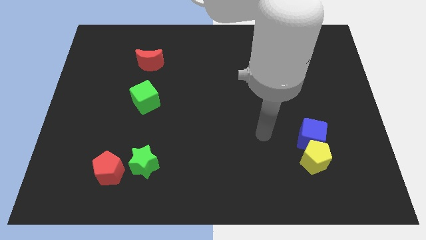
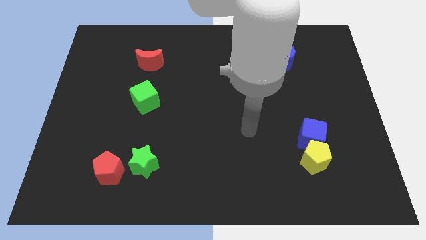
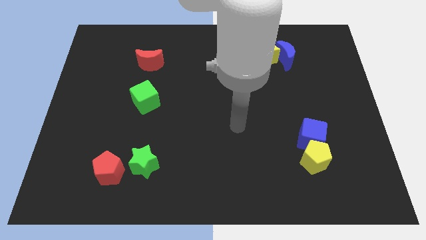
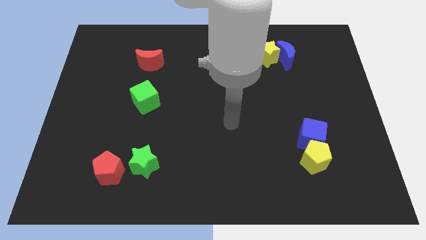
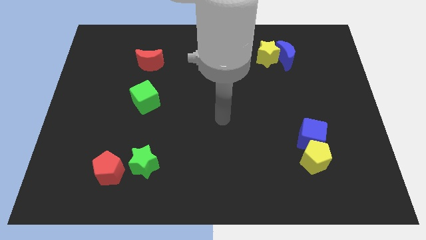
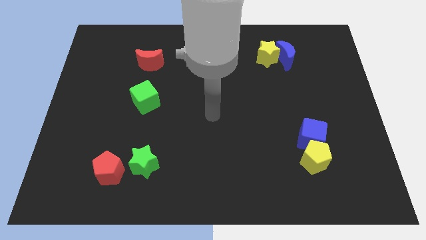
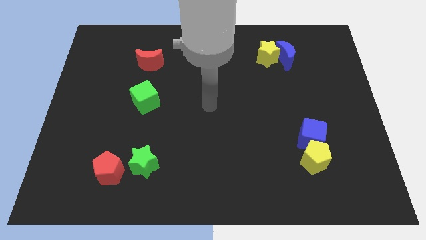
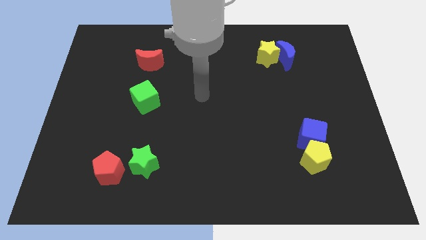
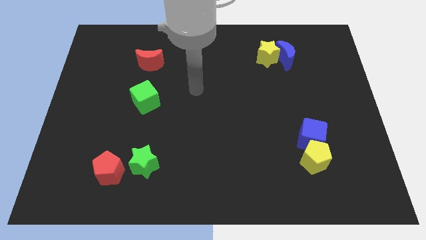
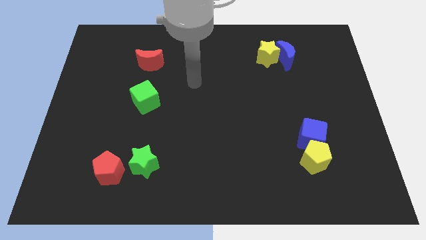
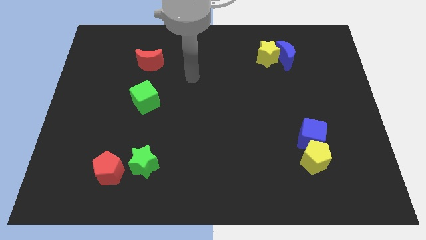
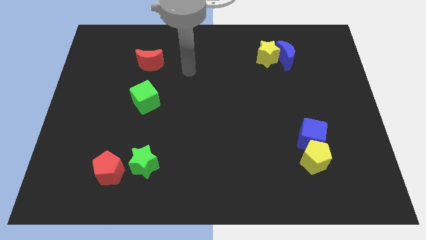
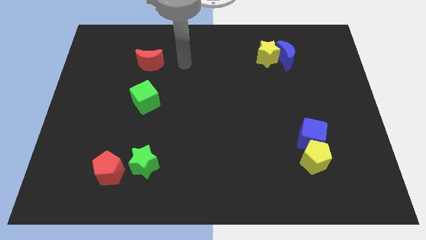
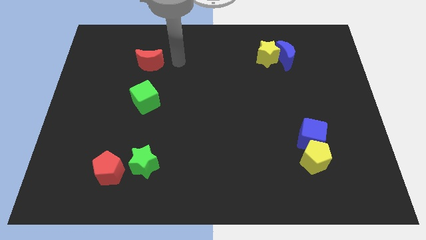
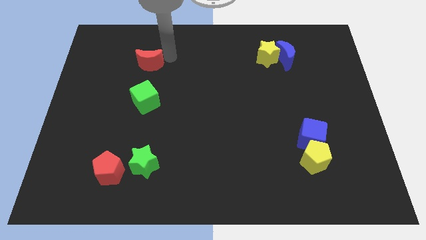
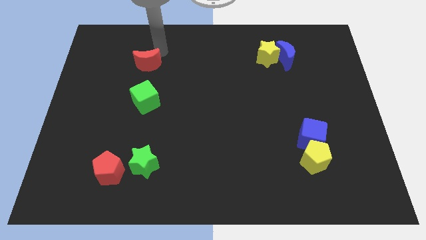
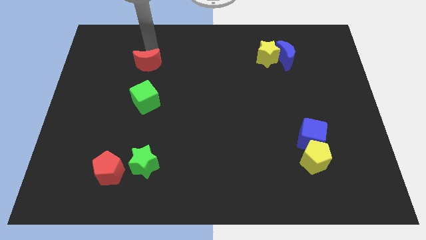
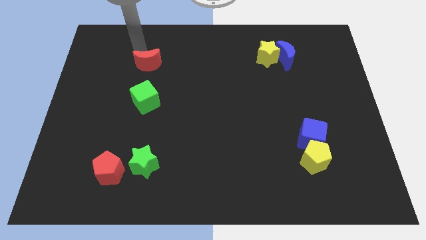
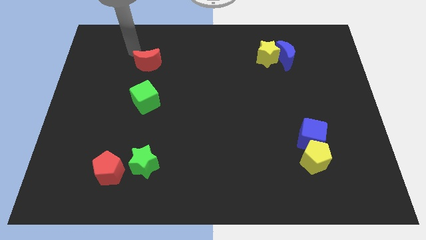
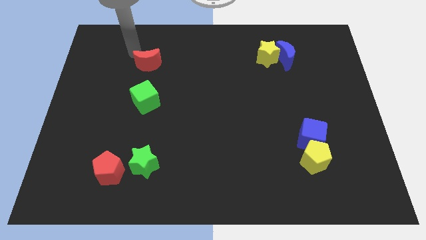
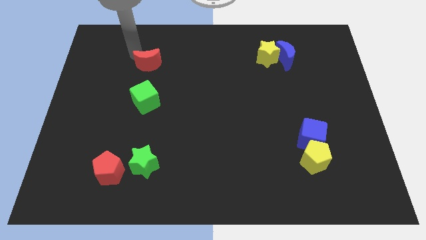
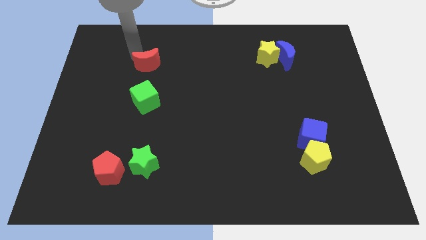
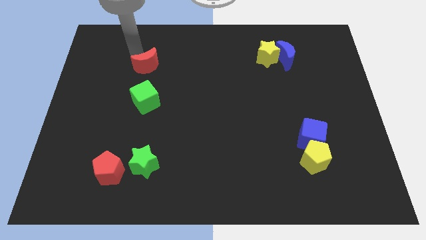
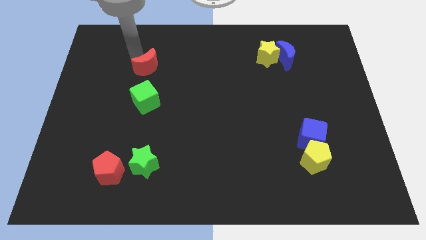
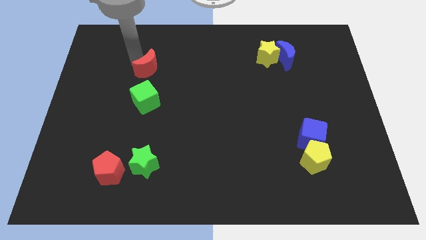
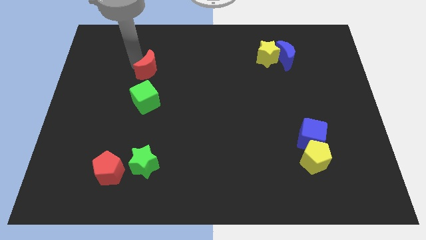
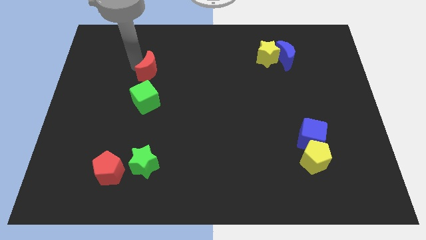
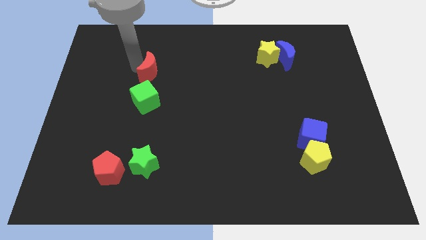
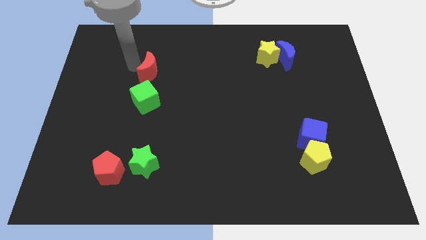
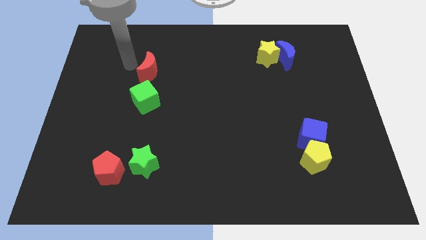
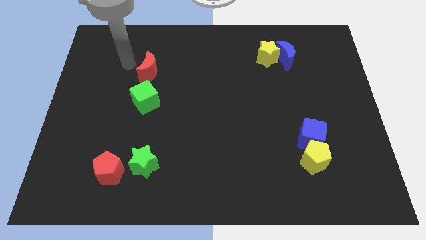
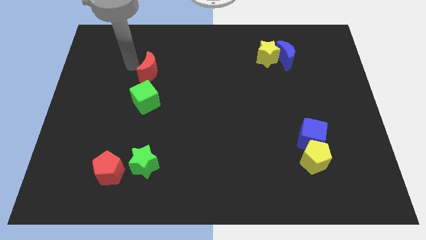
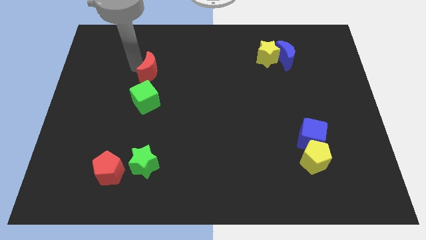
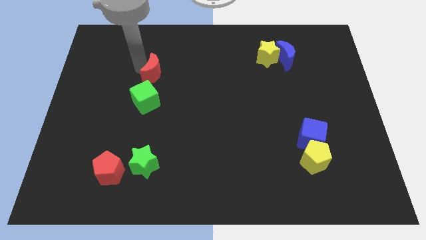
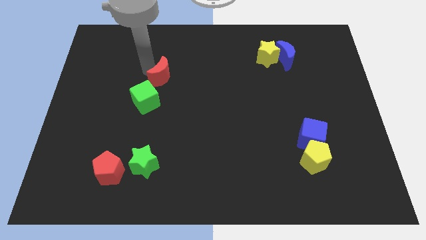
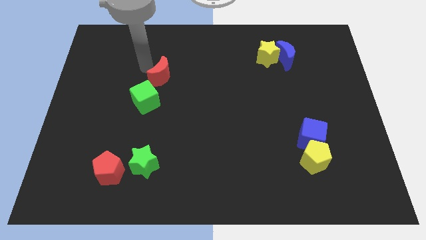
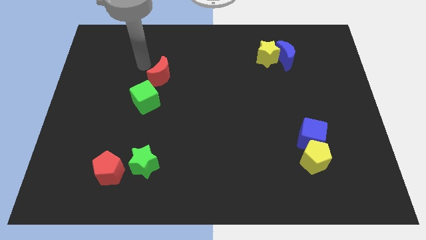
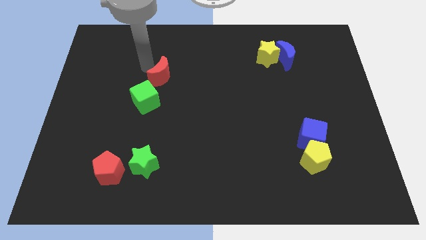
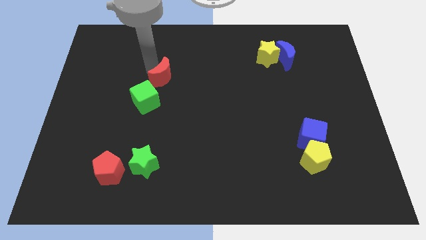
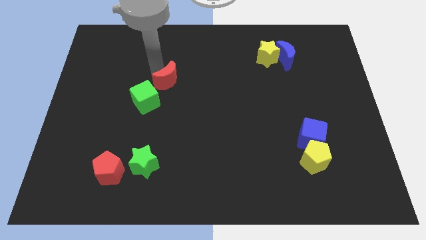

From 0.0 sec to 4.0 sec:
move the red moon a little bit diagonally down and right

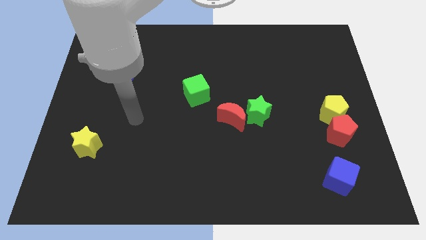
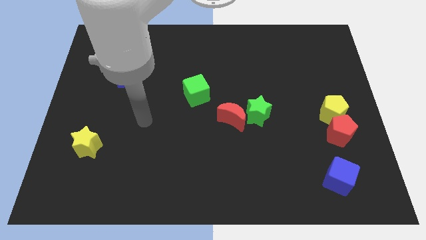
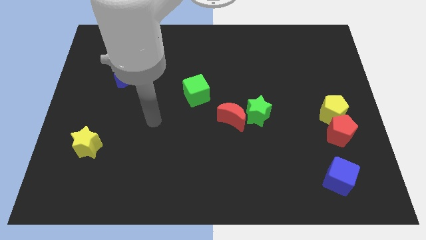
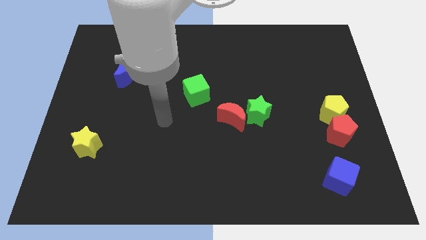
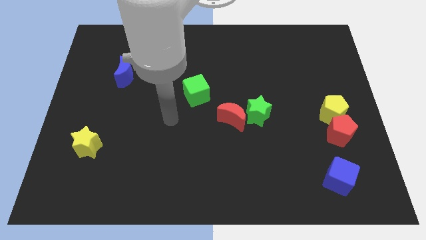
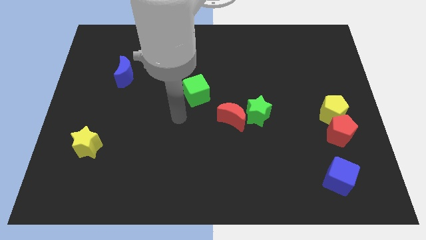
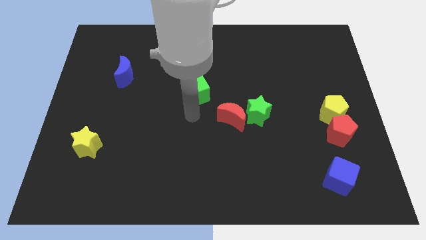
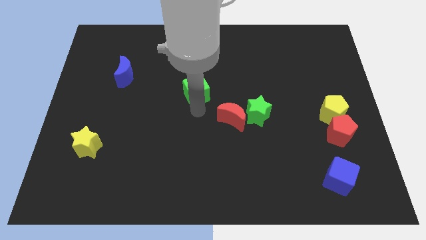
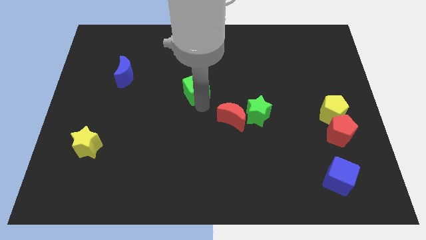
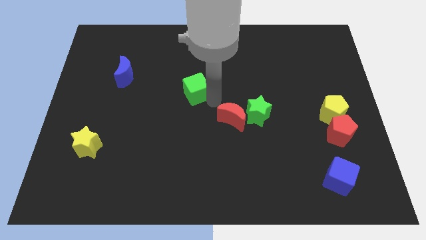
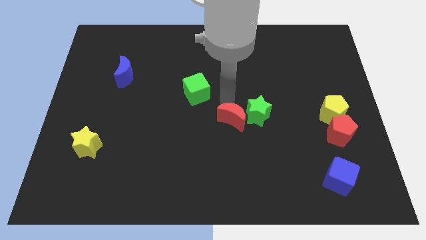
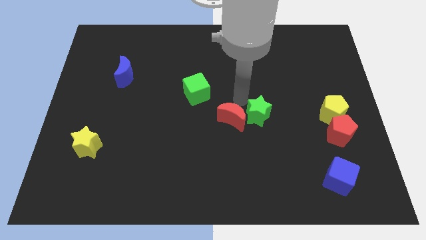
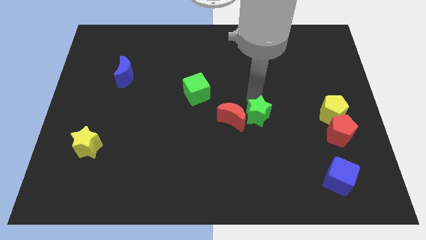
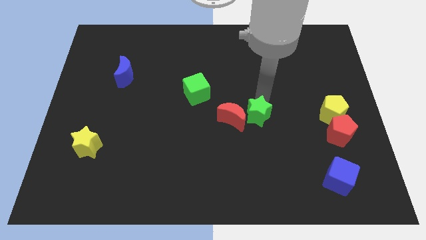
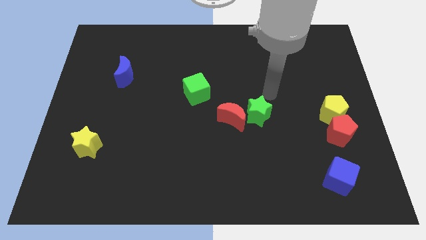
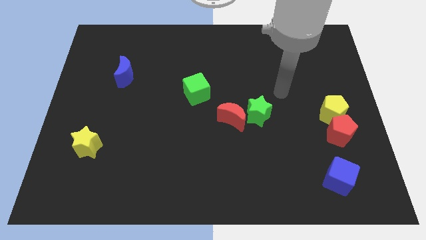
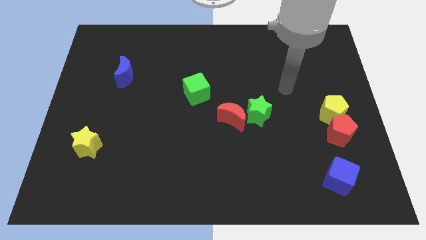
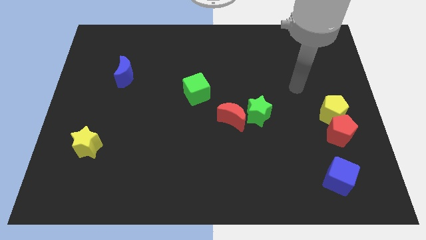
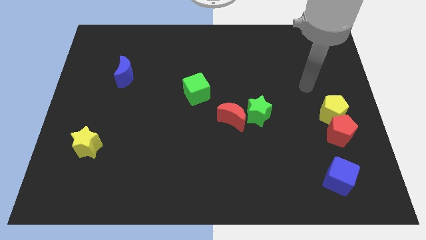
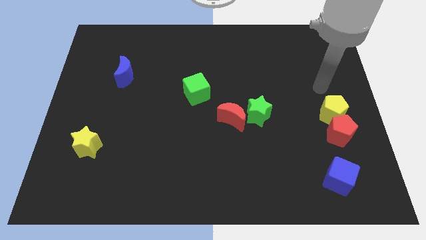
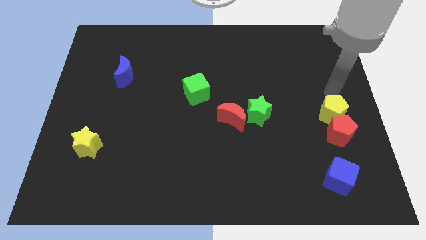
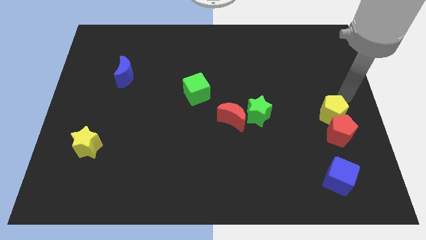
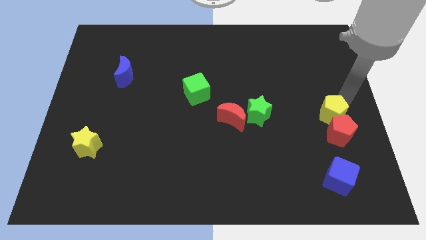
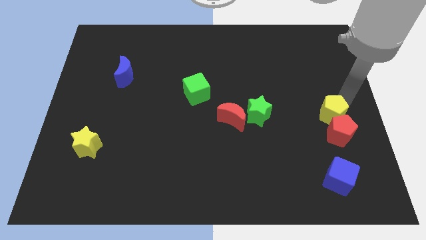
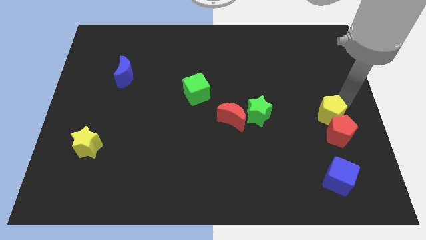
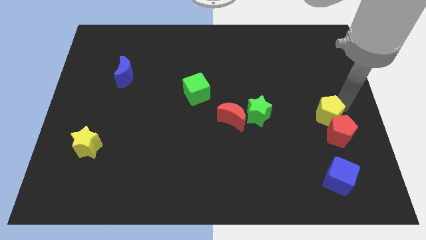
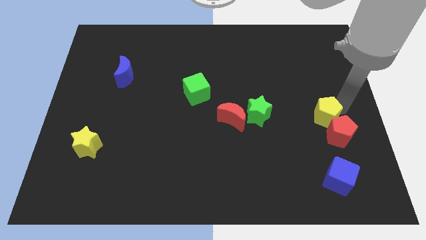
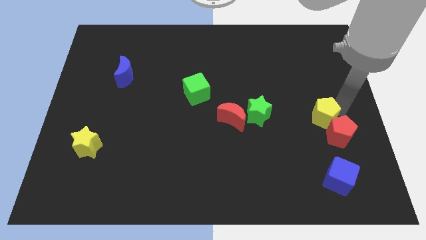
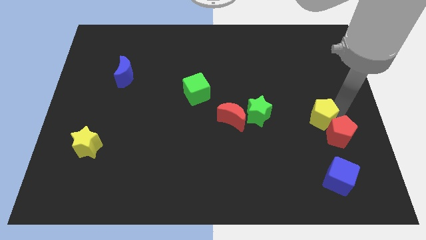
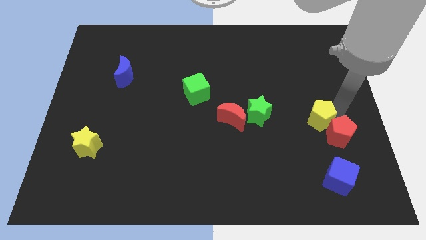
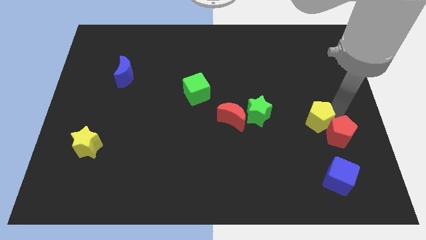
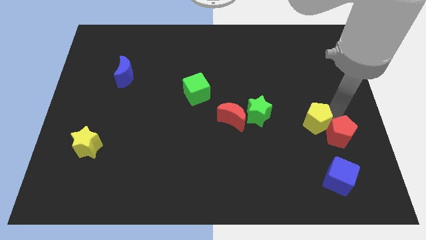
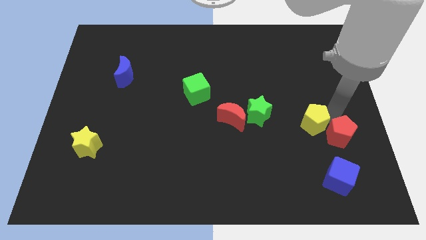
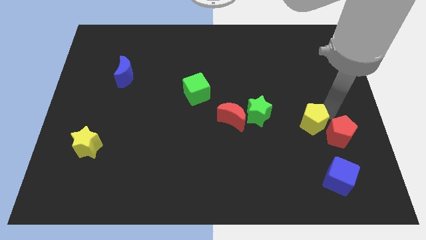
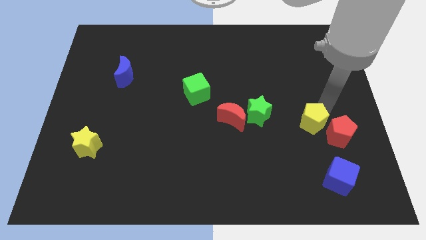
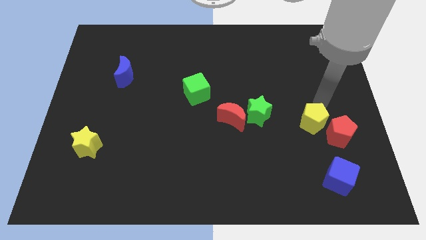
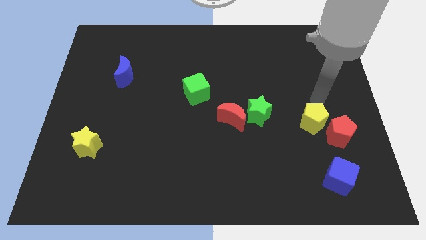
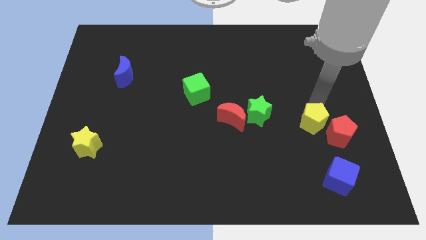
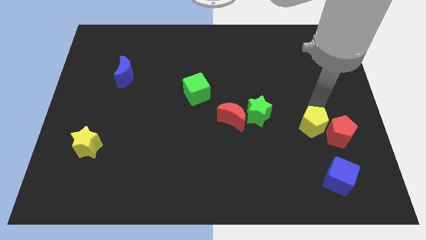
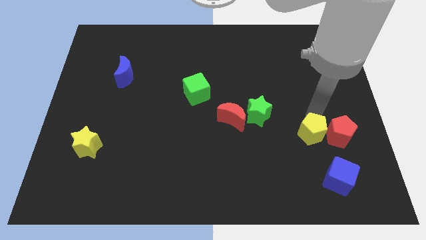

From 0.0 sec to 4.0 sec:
slightly move the yellow pentagon down and left diagonally

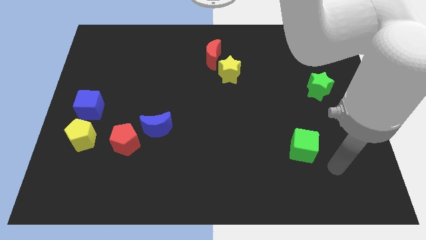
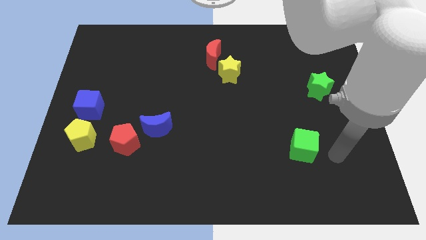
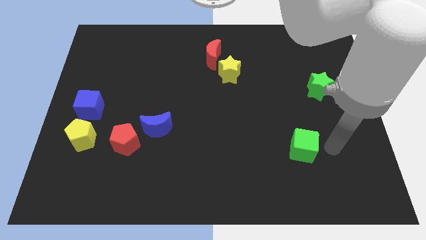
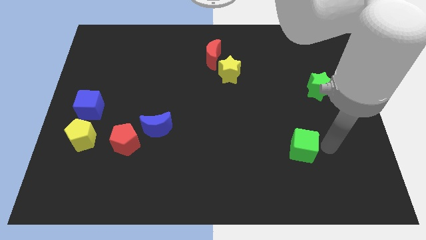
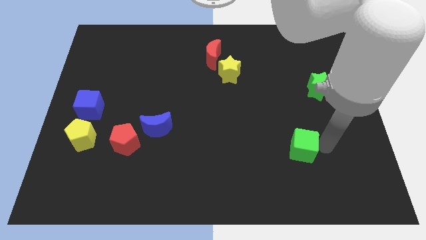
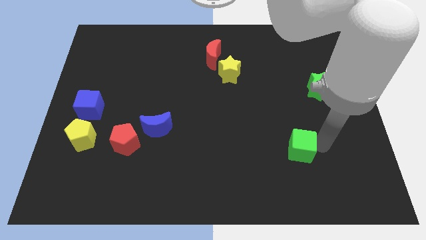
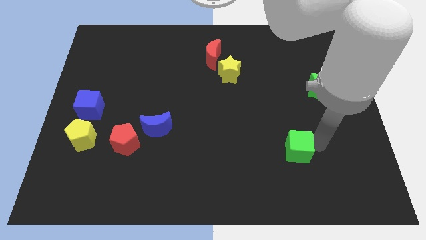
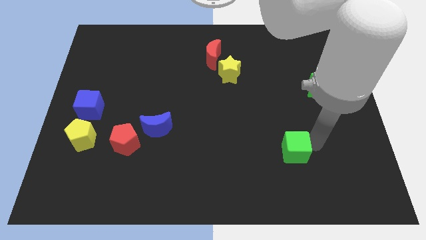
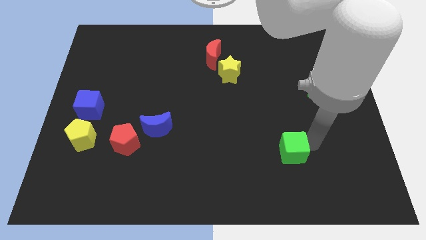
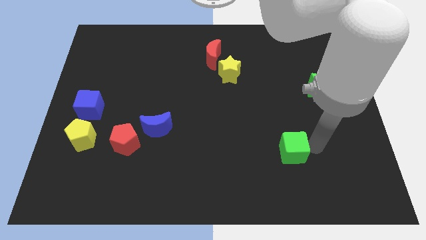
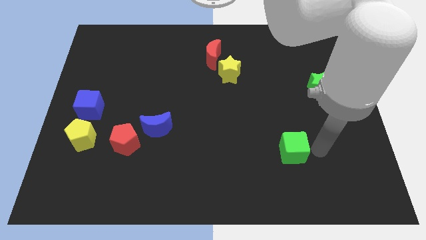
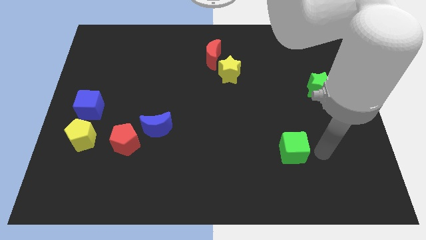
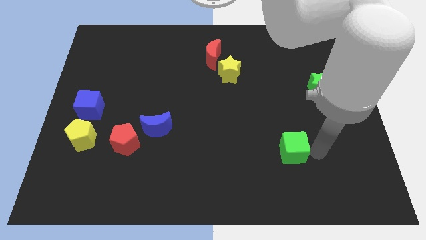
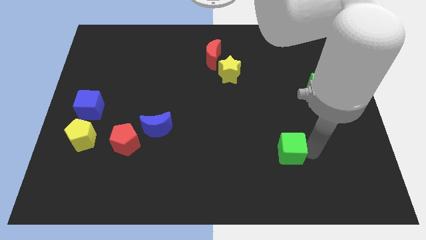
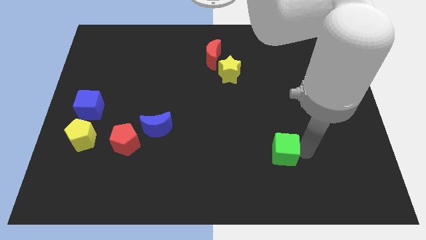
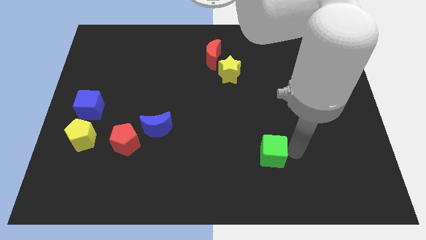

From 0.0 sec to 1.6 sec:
slightly push the green cube to the left
